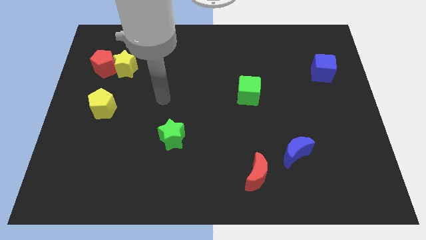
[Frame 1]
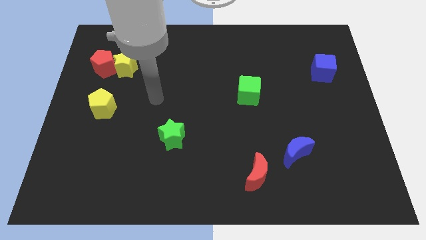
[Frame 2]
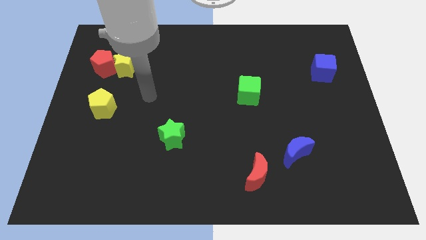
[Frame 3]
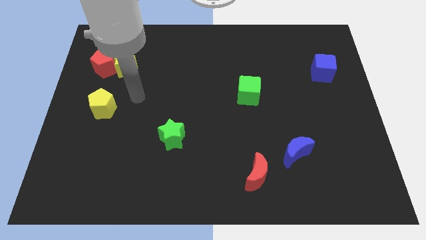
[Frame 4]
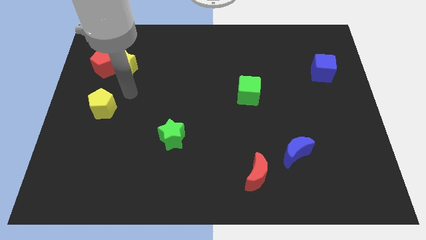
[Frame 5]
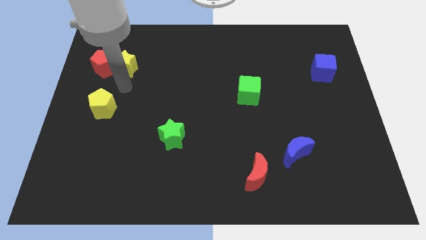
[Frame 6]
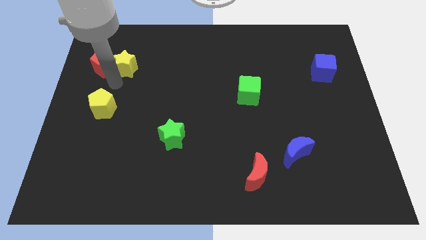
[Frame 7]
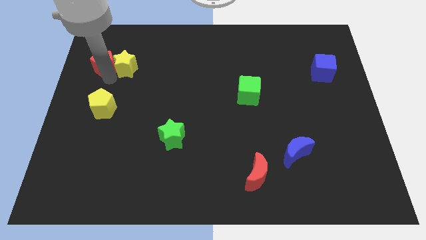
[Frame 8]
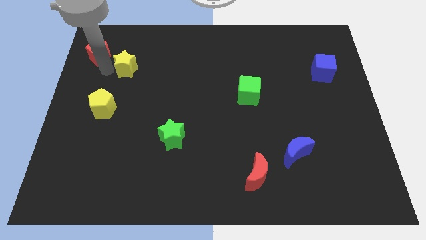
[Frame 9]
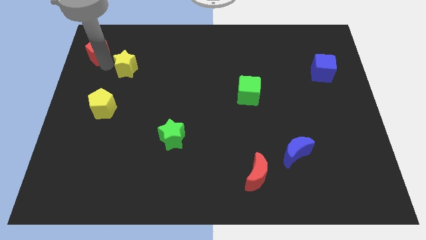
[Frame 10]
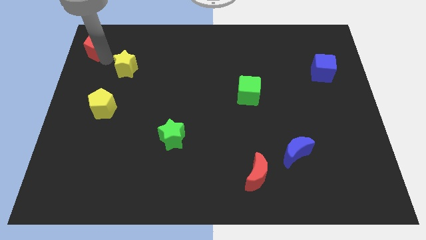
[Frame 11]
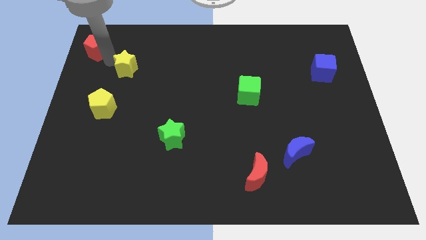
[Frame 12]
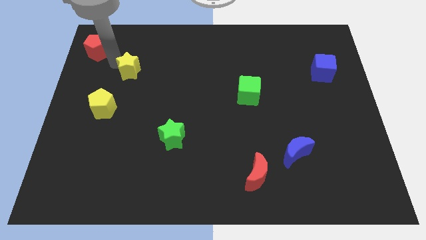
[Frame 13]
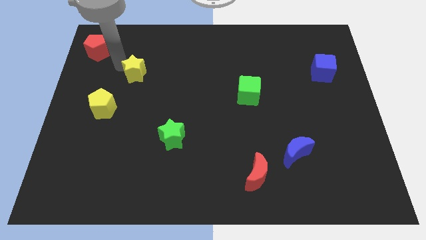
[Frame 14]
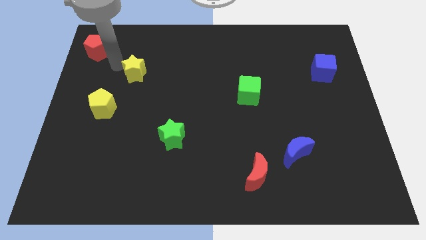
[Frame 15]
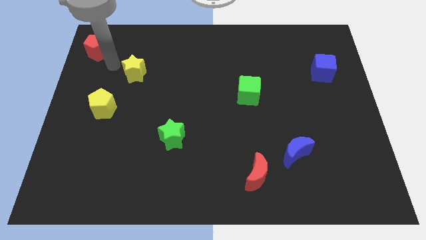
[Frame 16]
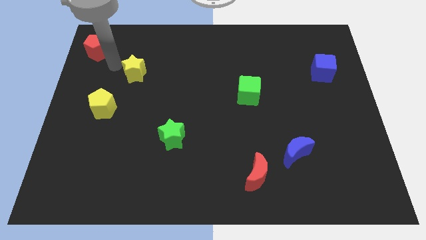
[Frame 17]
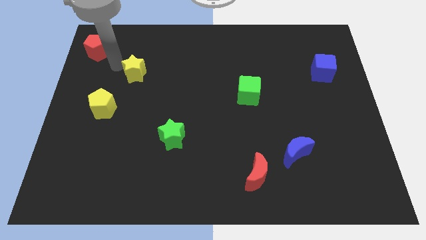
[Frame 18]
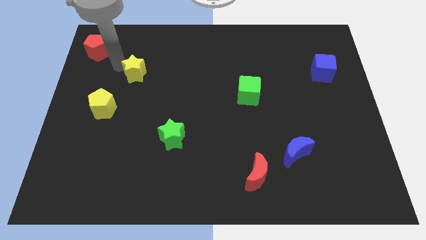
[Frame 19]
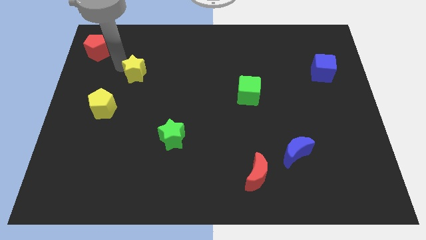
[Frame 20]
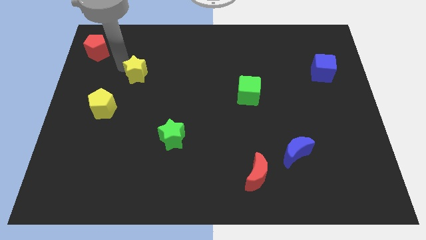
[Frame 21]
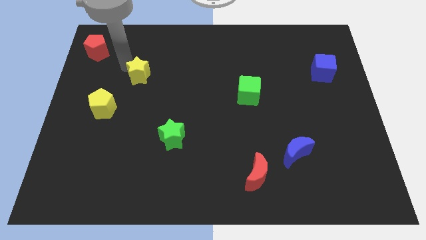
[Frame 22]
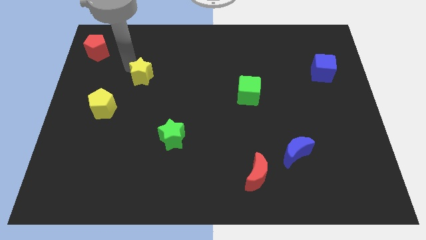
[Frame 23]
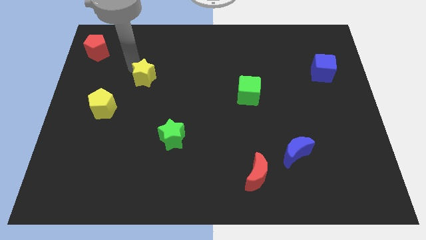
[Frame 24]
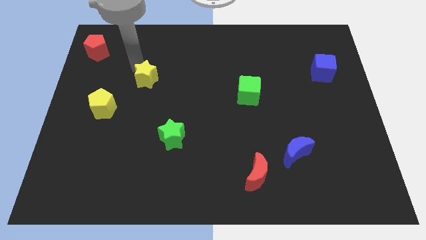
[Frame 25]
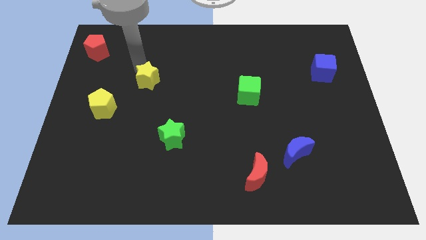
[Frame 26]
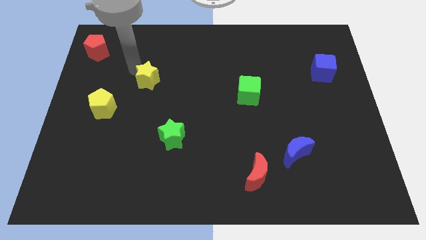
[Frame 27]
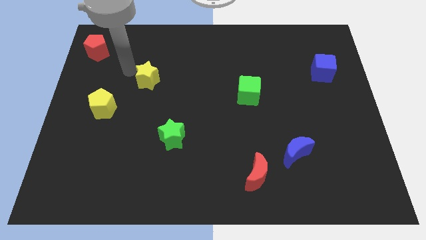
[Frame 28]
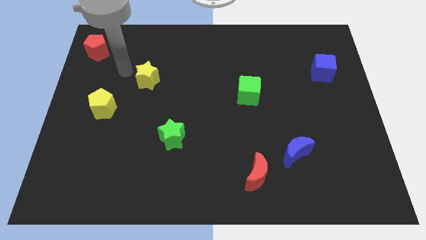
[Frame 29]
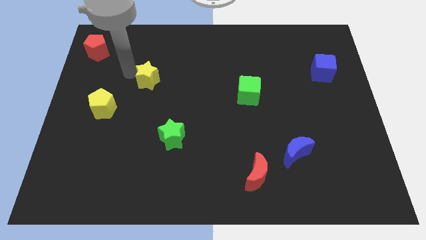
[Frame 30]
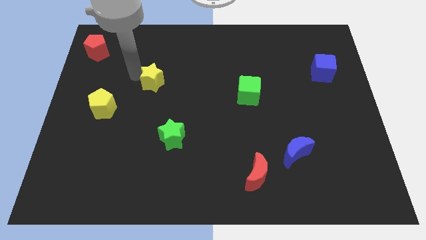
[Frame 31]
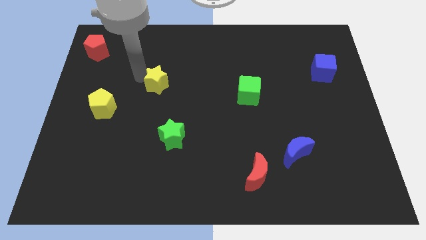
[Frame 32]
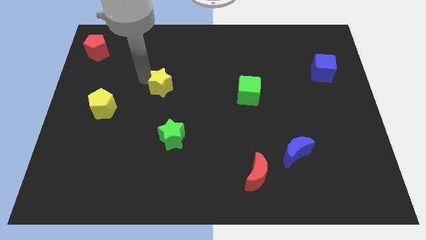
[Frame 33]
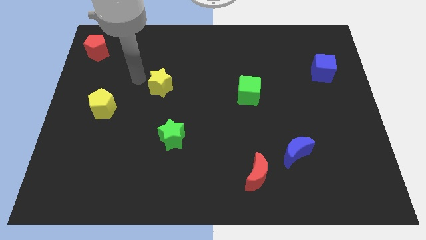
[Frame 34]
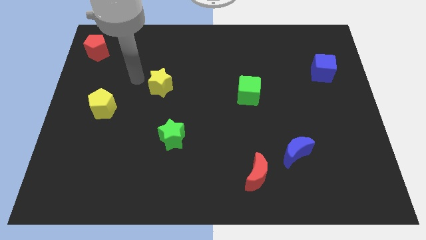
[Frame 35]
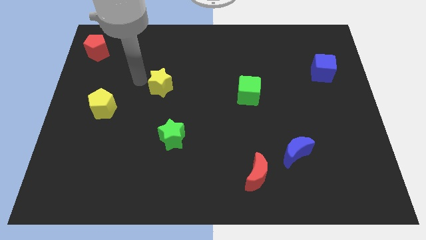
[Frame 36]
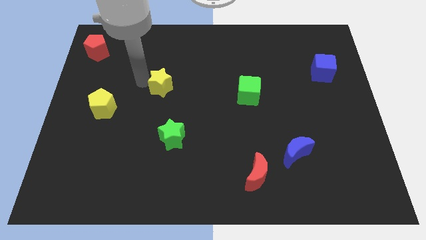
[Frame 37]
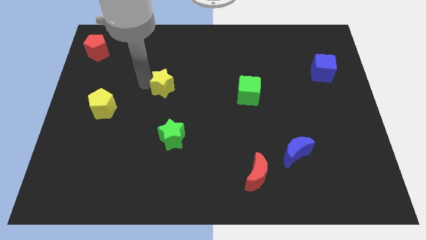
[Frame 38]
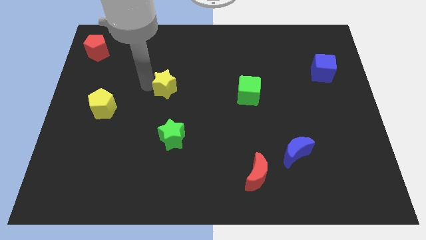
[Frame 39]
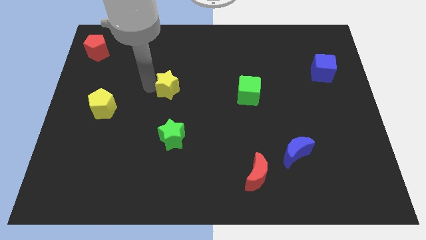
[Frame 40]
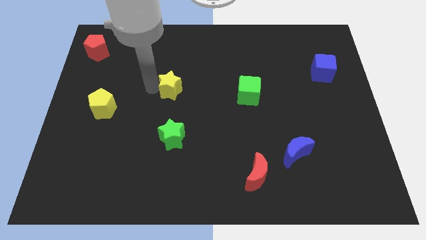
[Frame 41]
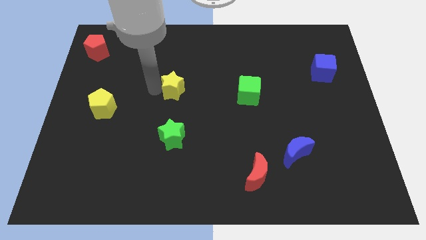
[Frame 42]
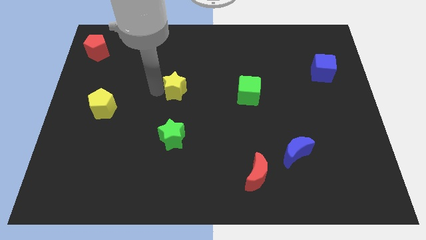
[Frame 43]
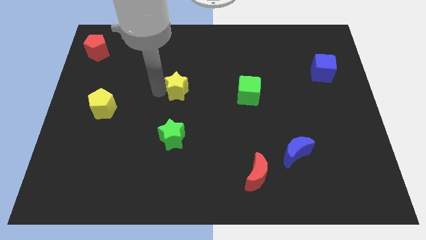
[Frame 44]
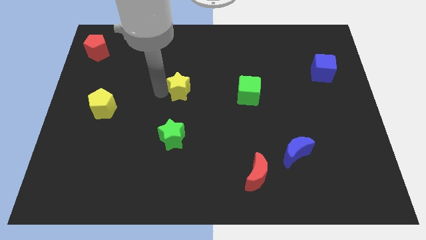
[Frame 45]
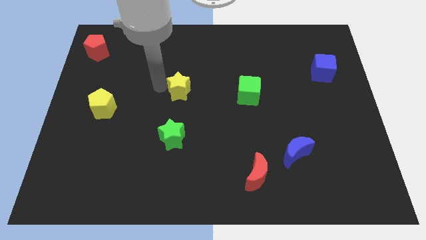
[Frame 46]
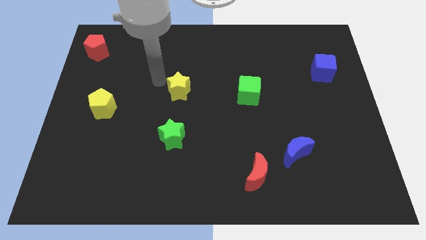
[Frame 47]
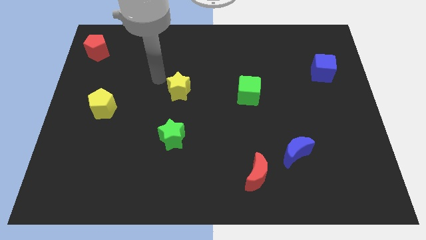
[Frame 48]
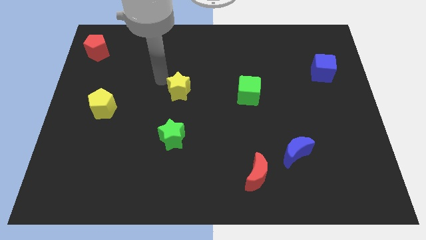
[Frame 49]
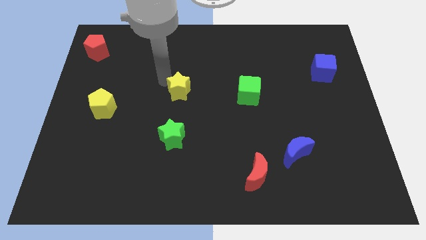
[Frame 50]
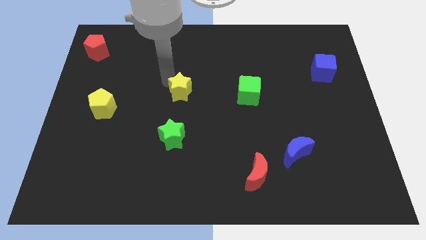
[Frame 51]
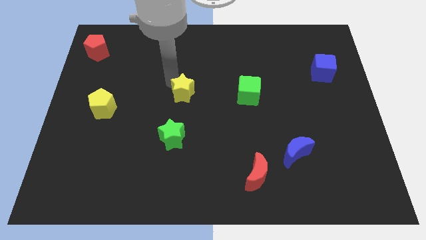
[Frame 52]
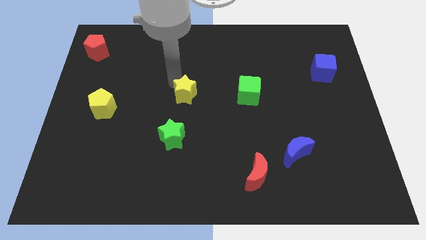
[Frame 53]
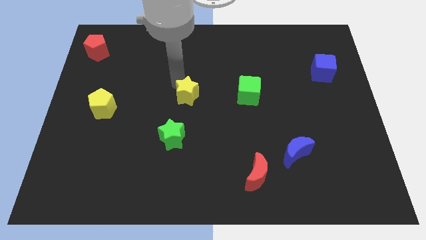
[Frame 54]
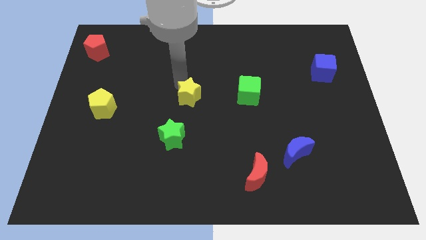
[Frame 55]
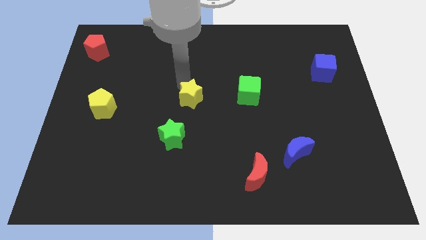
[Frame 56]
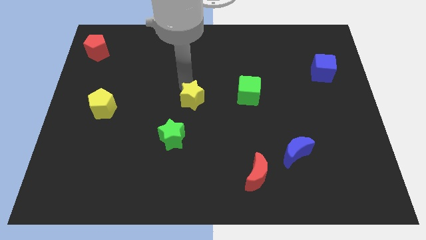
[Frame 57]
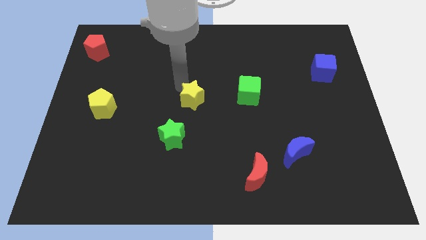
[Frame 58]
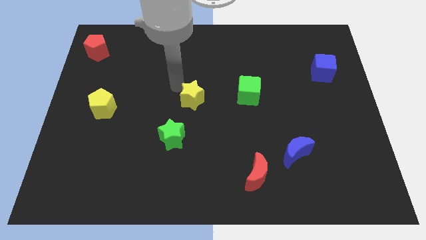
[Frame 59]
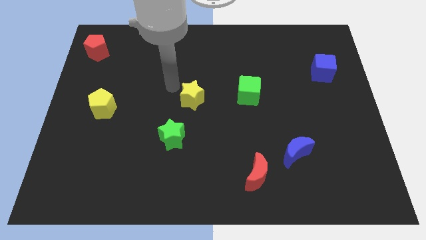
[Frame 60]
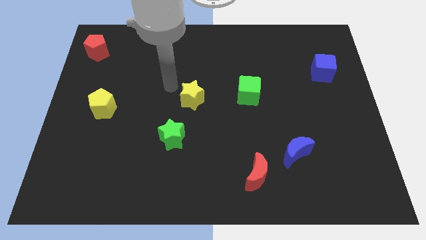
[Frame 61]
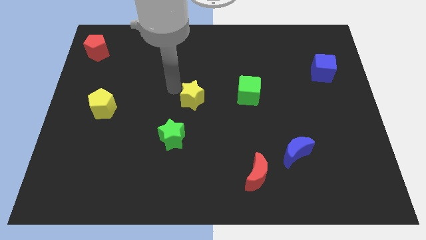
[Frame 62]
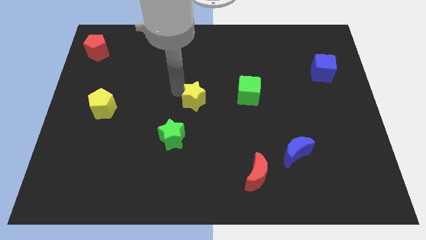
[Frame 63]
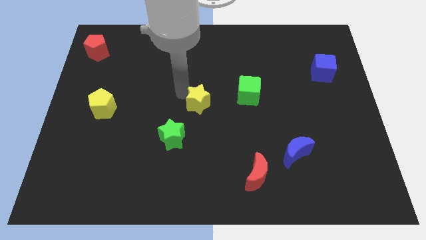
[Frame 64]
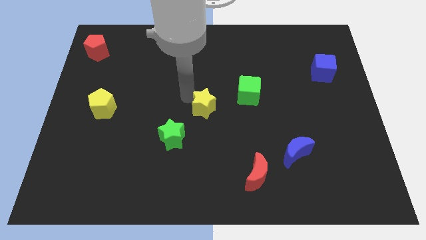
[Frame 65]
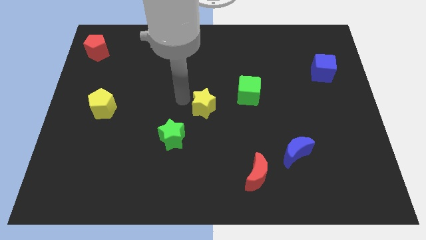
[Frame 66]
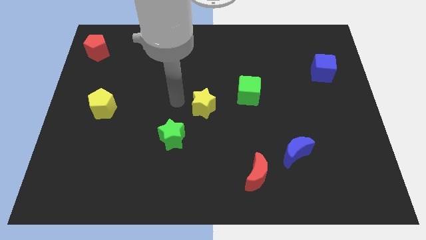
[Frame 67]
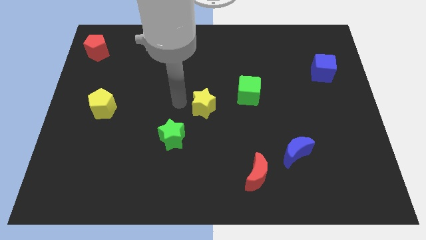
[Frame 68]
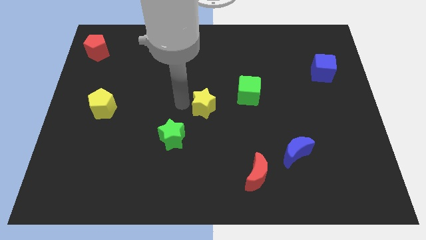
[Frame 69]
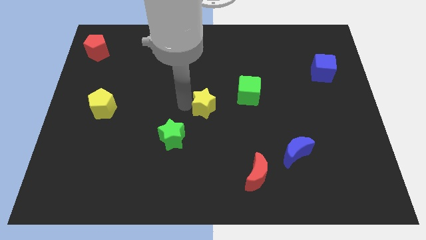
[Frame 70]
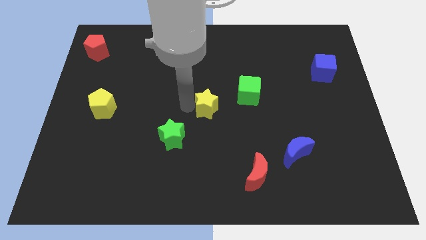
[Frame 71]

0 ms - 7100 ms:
put the yellow star to the bottom left of the green cube
